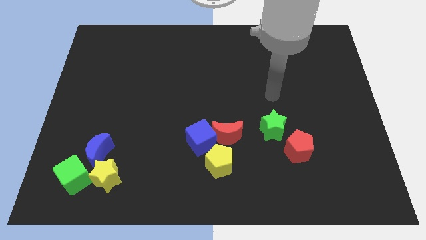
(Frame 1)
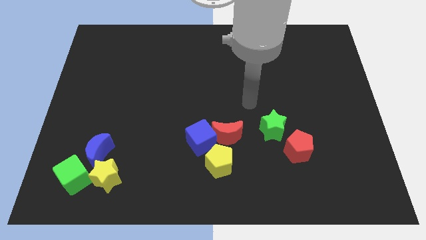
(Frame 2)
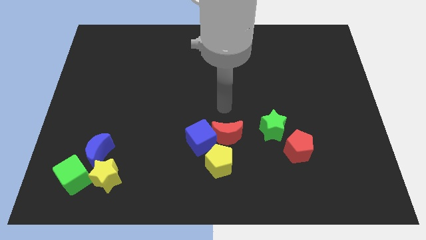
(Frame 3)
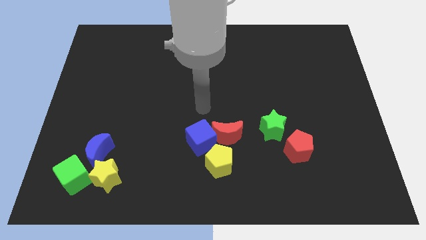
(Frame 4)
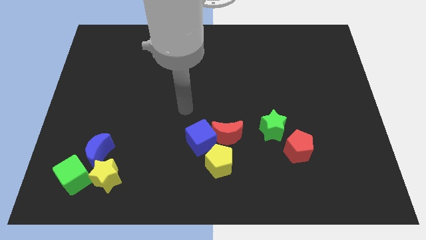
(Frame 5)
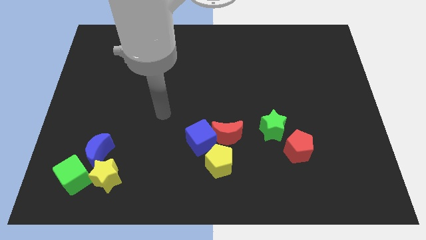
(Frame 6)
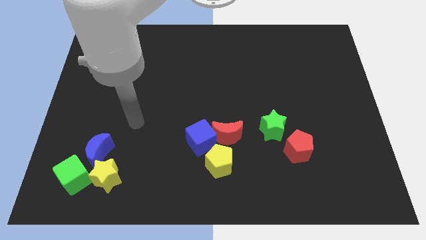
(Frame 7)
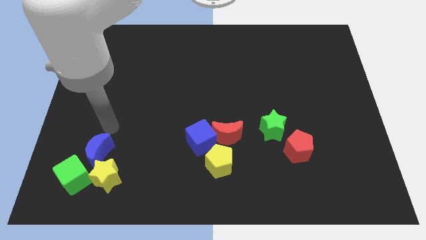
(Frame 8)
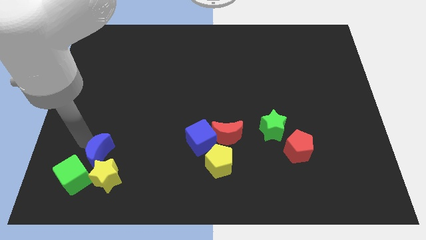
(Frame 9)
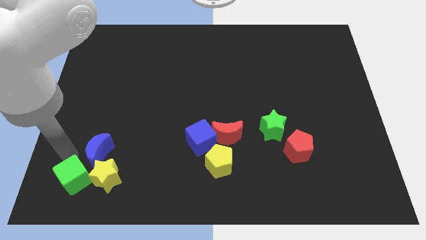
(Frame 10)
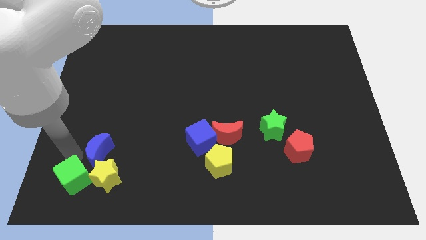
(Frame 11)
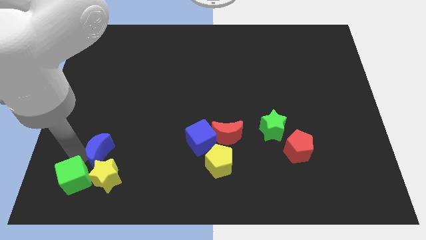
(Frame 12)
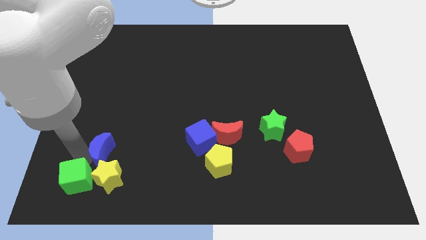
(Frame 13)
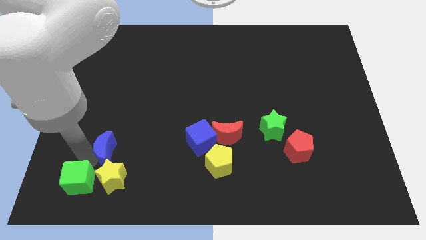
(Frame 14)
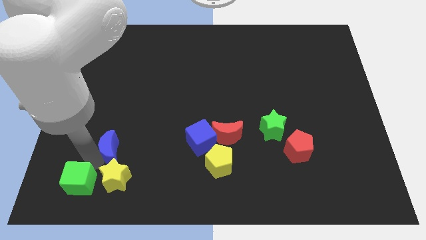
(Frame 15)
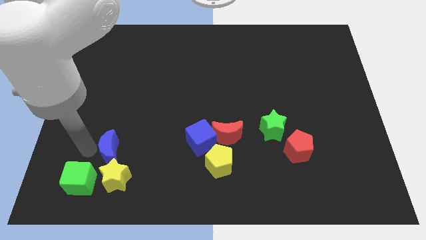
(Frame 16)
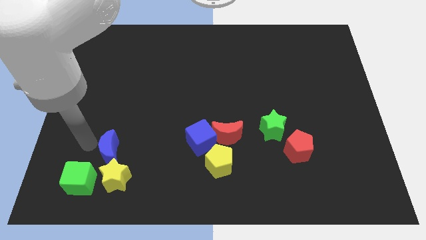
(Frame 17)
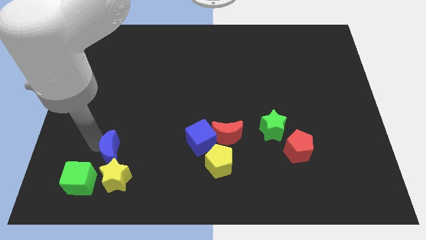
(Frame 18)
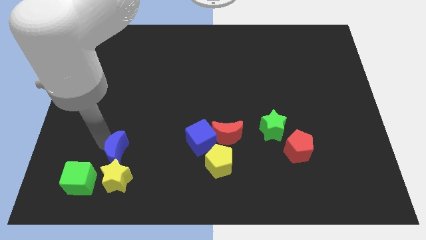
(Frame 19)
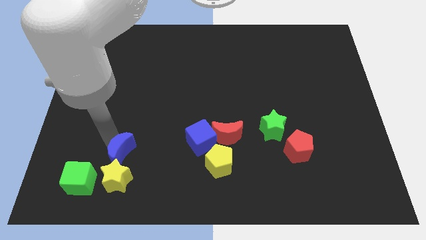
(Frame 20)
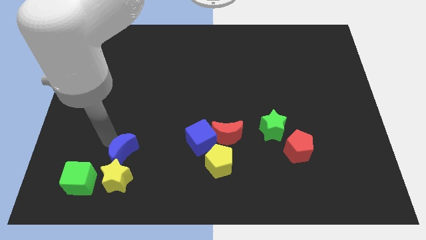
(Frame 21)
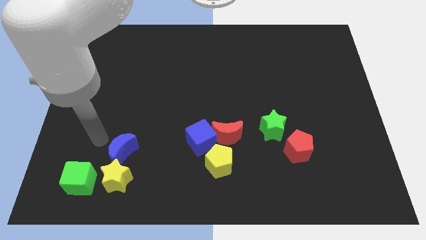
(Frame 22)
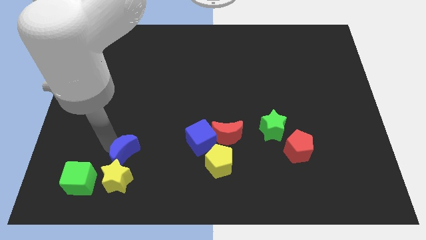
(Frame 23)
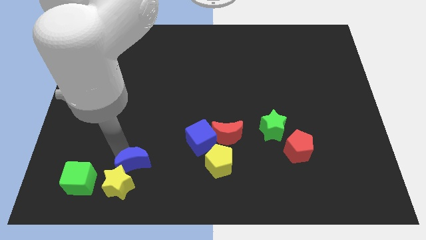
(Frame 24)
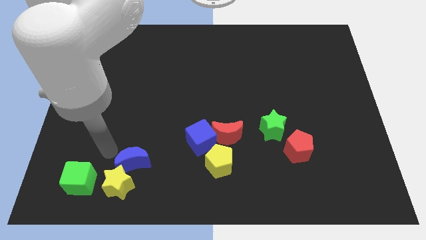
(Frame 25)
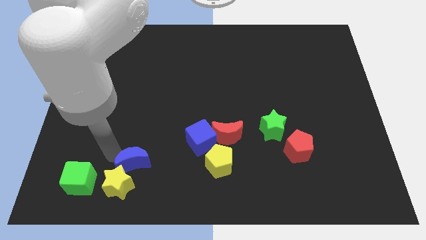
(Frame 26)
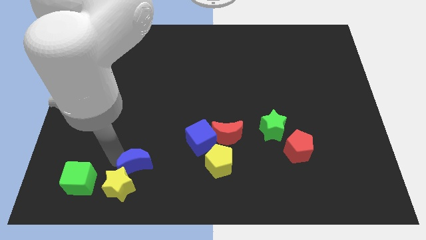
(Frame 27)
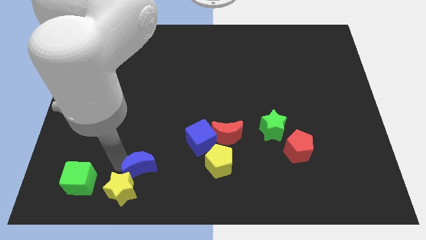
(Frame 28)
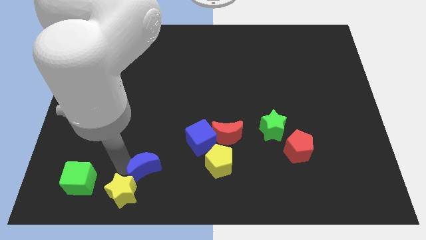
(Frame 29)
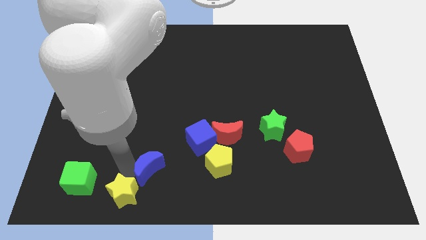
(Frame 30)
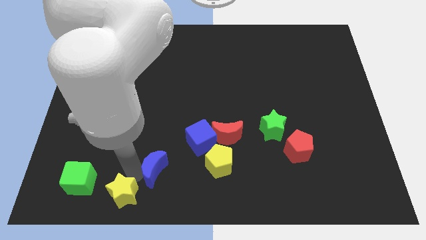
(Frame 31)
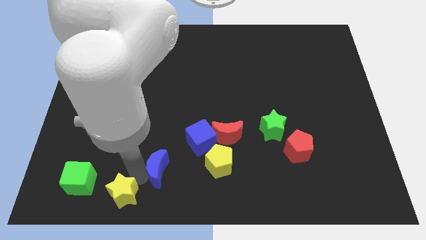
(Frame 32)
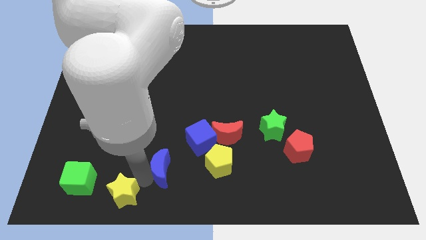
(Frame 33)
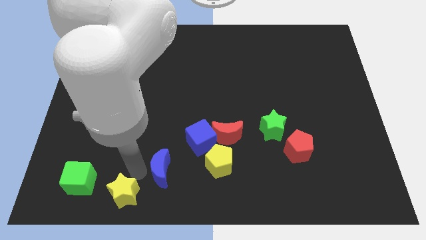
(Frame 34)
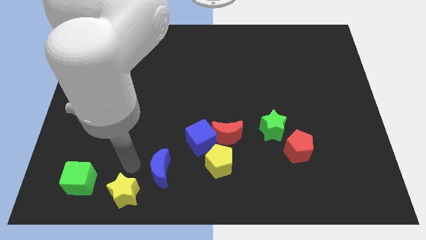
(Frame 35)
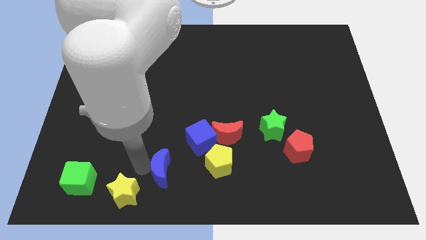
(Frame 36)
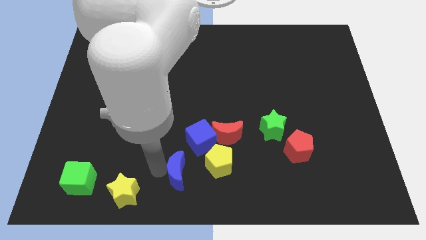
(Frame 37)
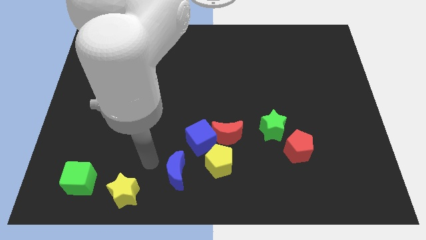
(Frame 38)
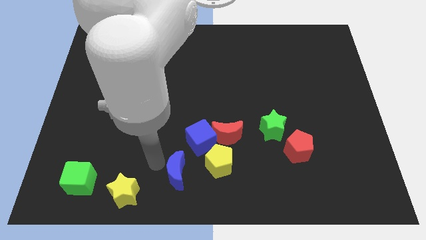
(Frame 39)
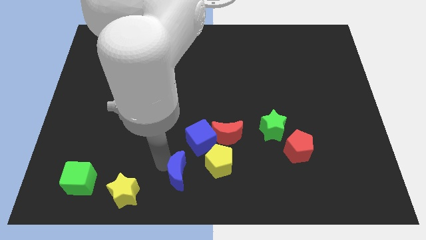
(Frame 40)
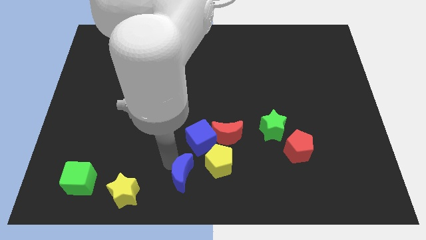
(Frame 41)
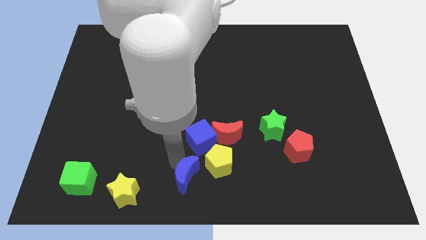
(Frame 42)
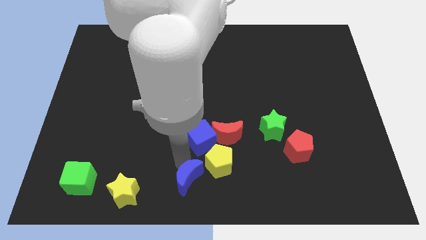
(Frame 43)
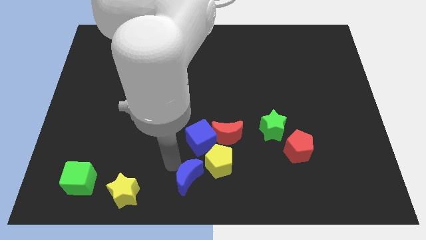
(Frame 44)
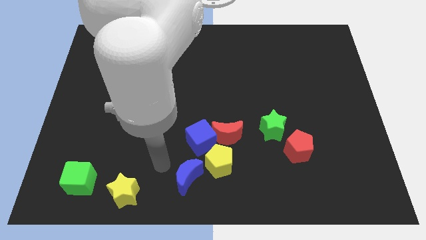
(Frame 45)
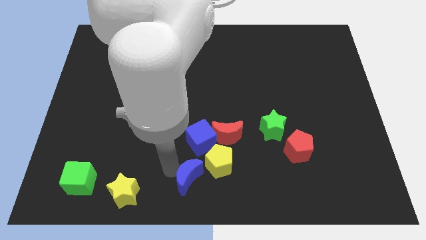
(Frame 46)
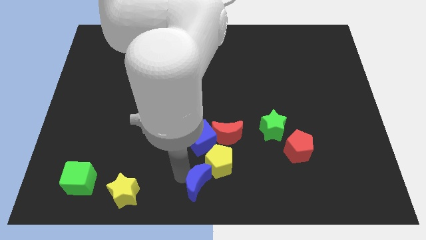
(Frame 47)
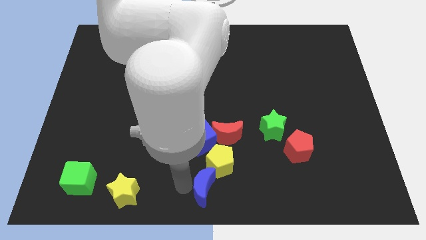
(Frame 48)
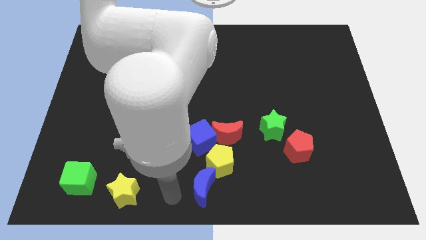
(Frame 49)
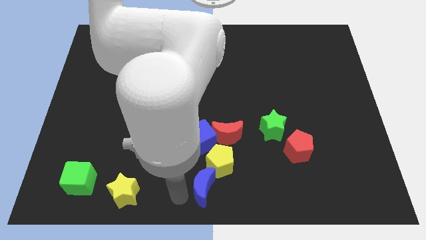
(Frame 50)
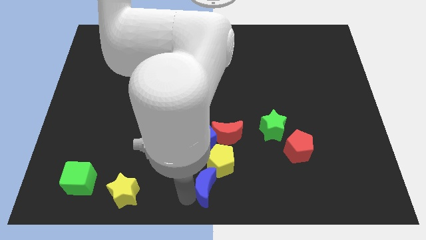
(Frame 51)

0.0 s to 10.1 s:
push the blue moon right

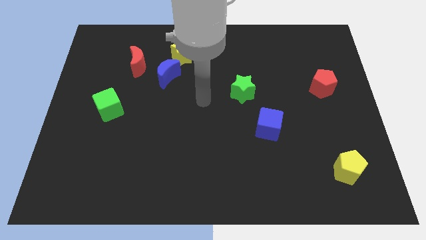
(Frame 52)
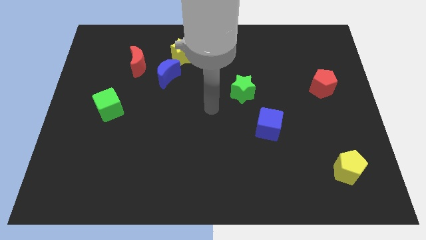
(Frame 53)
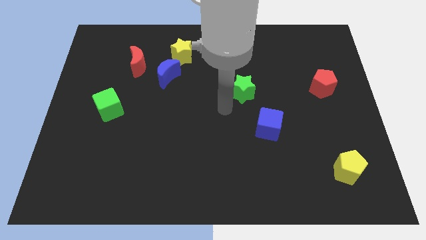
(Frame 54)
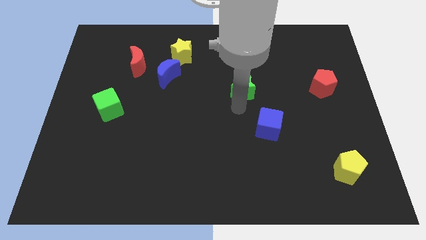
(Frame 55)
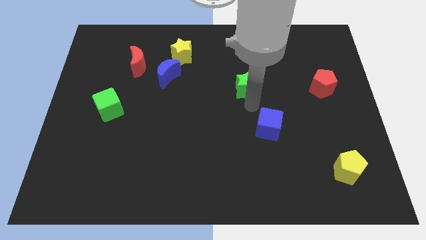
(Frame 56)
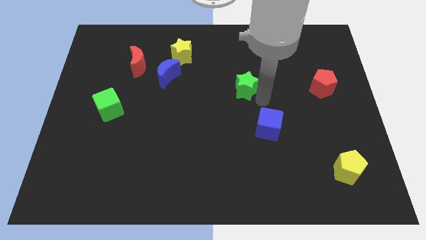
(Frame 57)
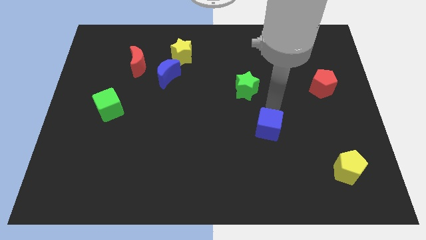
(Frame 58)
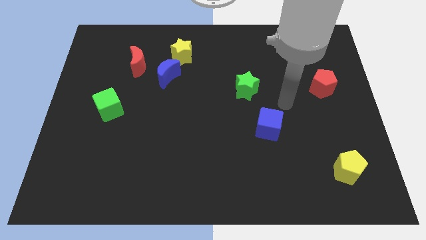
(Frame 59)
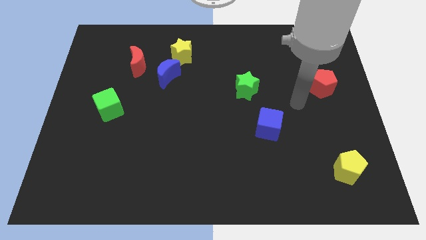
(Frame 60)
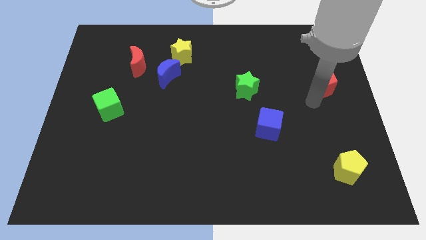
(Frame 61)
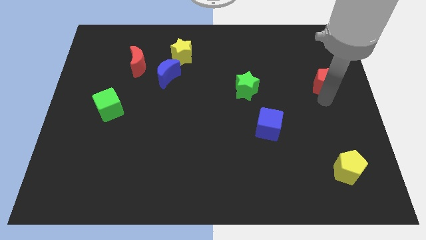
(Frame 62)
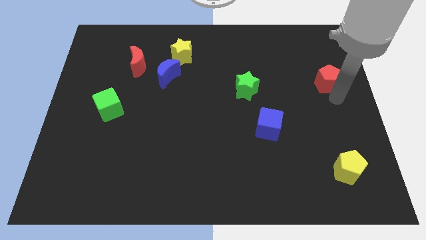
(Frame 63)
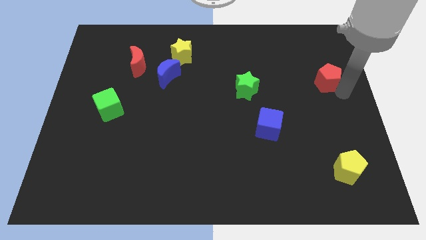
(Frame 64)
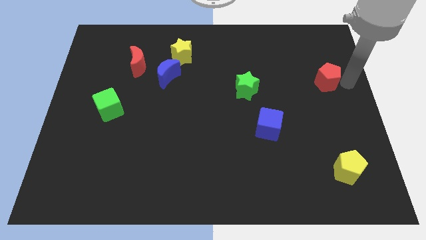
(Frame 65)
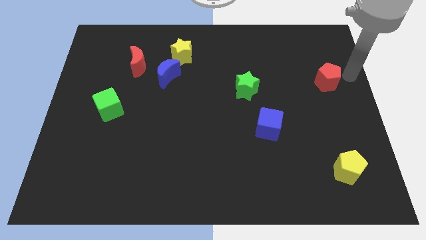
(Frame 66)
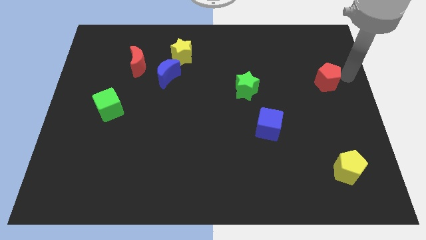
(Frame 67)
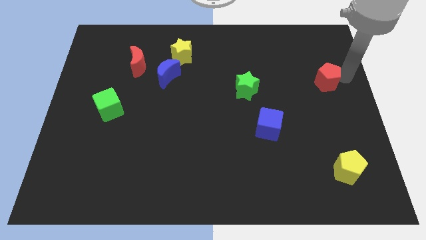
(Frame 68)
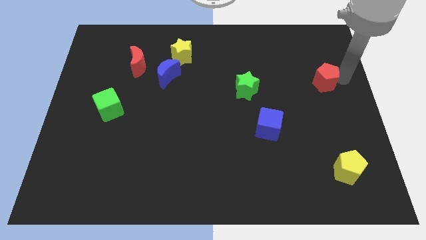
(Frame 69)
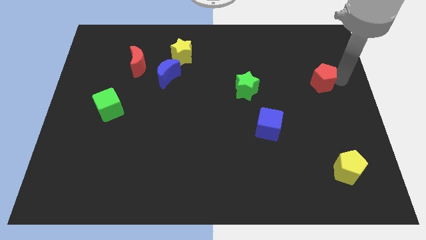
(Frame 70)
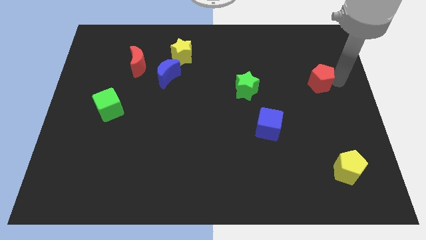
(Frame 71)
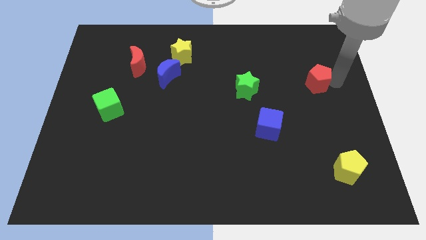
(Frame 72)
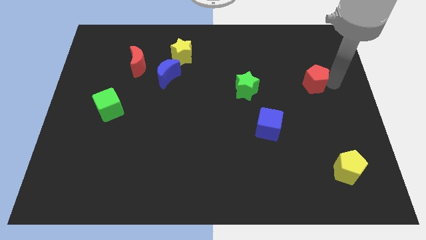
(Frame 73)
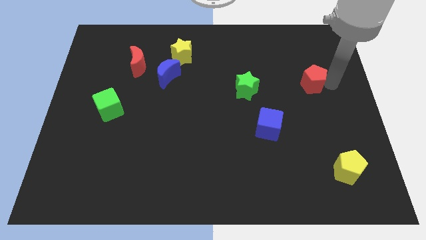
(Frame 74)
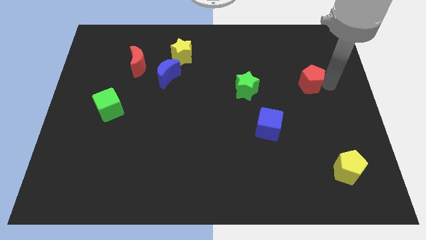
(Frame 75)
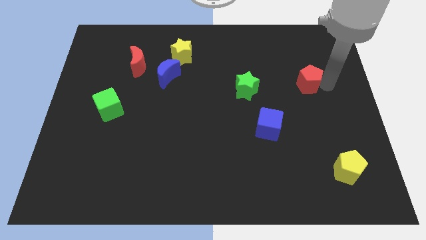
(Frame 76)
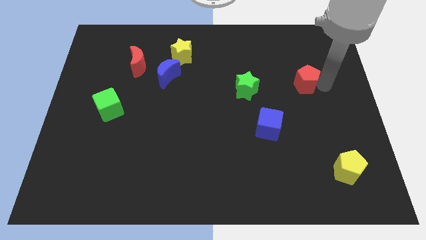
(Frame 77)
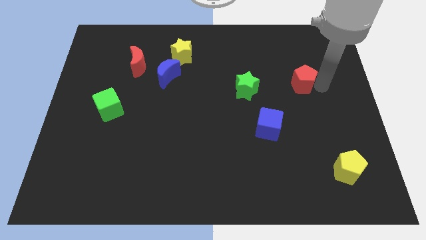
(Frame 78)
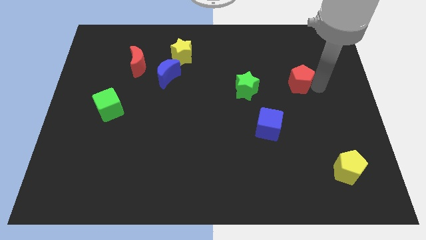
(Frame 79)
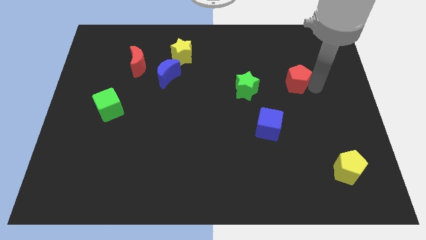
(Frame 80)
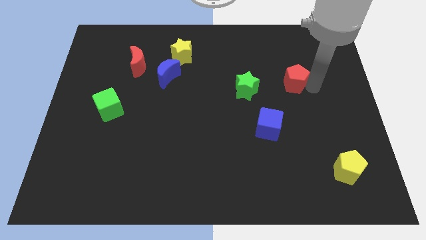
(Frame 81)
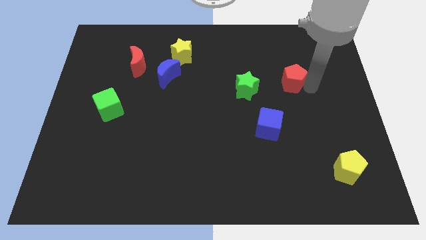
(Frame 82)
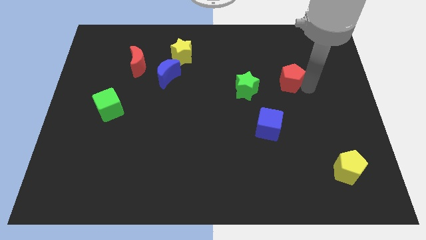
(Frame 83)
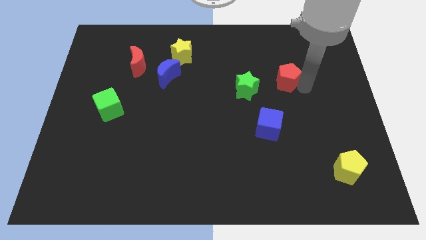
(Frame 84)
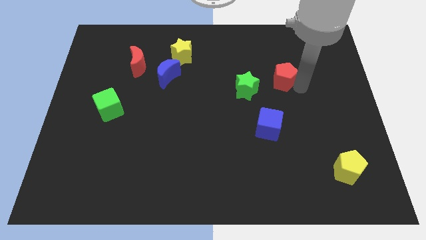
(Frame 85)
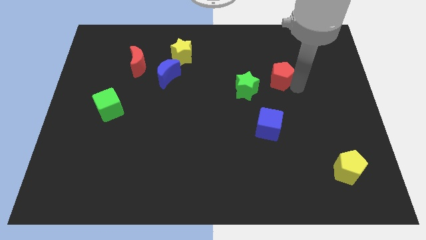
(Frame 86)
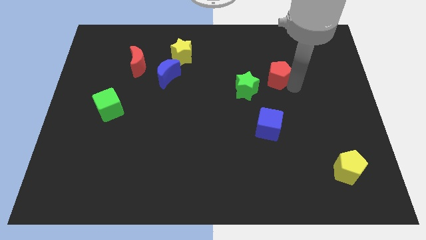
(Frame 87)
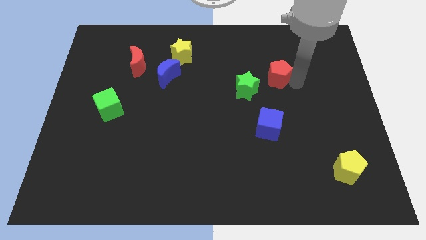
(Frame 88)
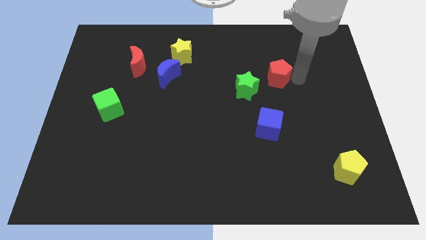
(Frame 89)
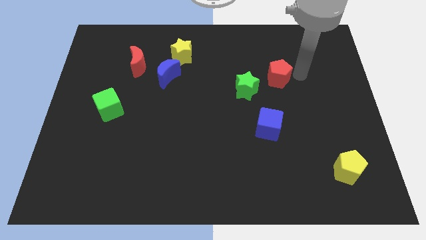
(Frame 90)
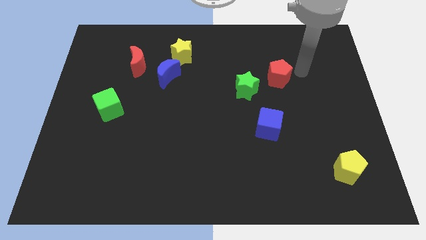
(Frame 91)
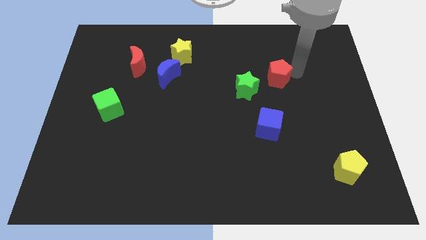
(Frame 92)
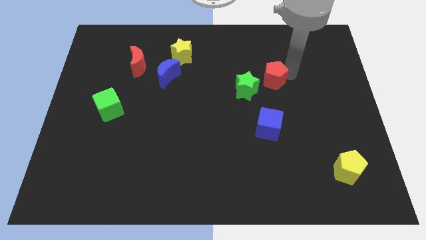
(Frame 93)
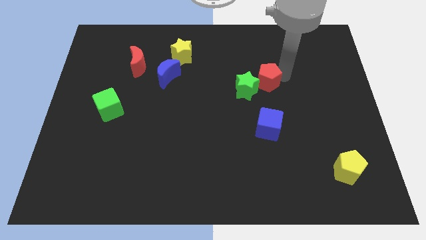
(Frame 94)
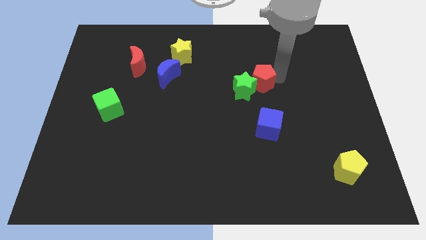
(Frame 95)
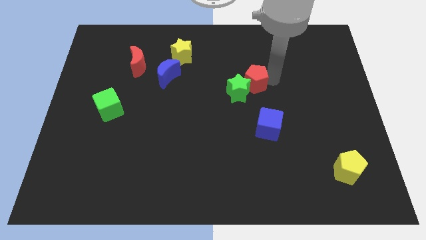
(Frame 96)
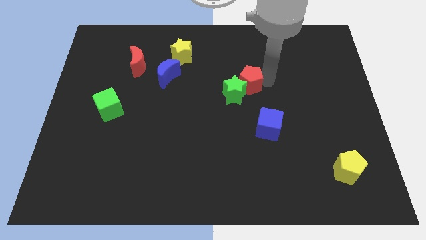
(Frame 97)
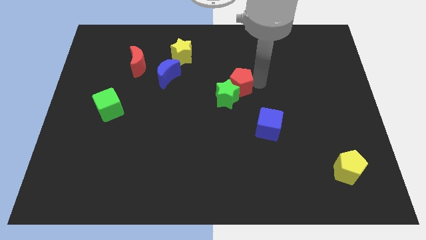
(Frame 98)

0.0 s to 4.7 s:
push the red pentagon to the left
